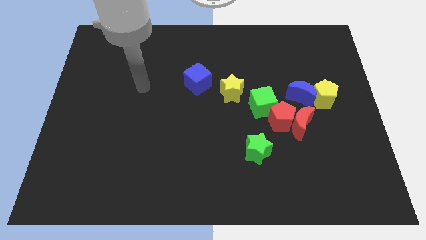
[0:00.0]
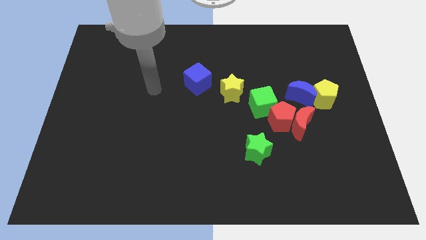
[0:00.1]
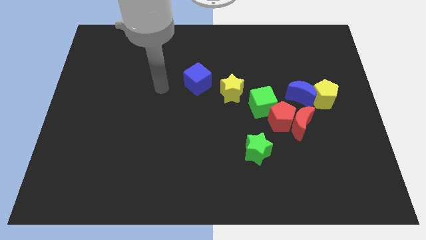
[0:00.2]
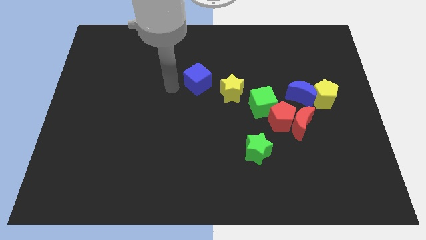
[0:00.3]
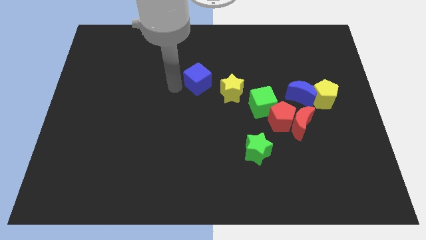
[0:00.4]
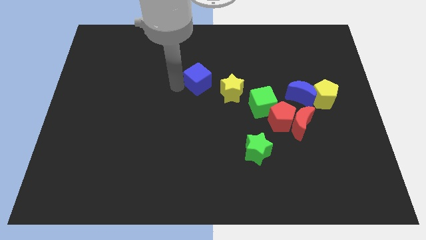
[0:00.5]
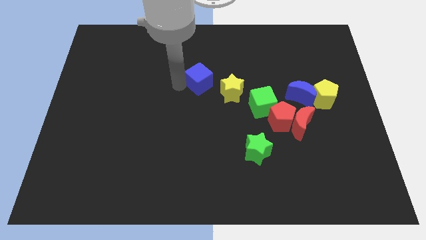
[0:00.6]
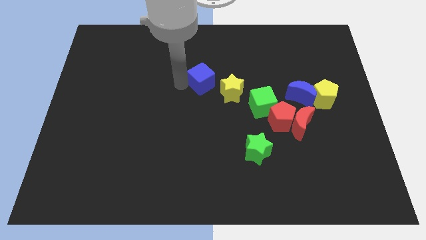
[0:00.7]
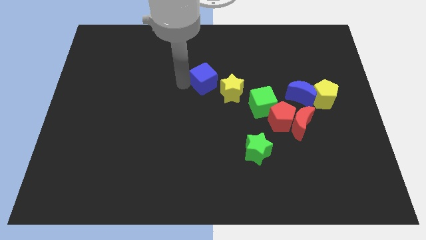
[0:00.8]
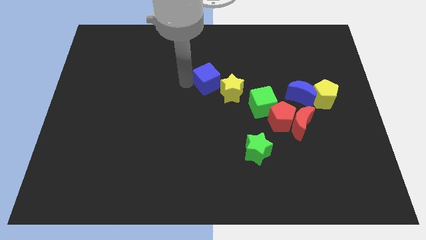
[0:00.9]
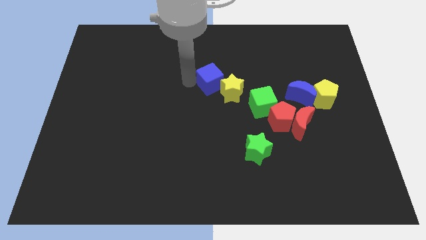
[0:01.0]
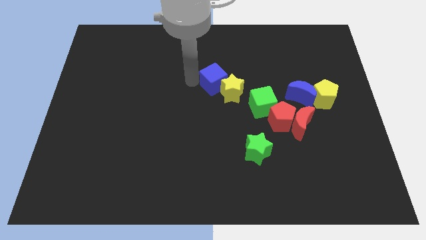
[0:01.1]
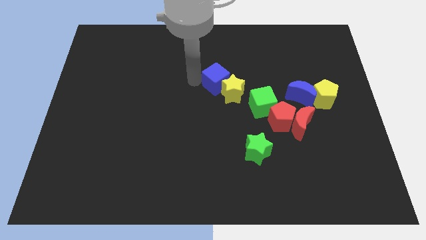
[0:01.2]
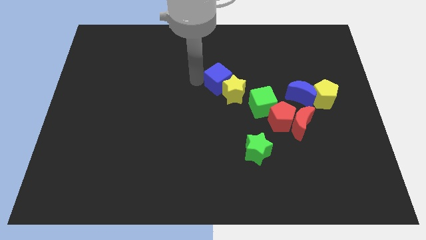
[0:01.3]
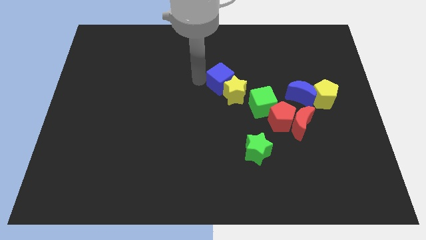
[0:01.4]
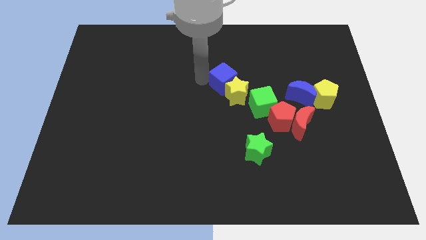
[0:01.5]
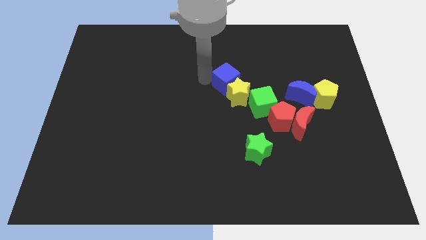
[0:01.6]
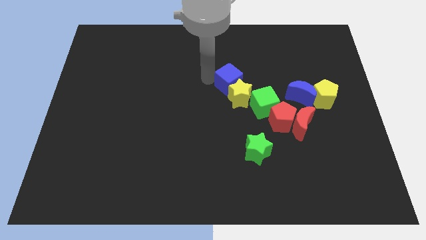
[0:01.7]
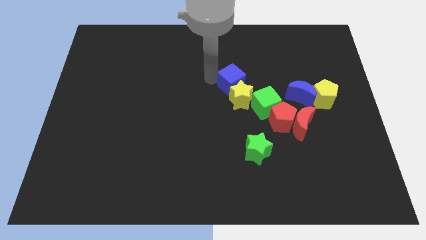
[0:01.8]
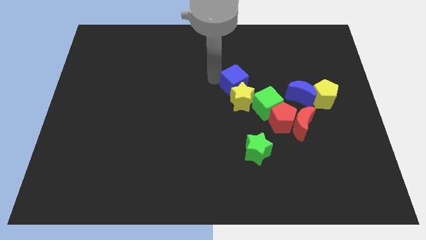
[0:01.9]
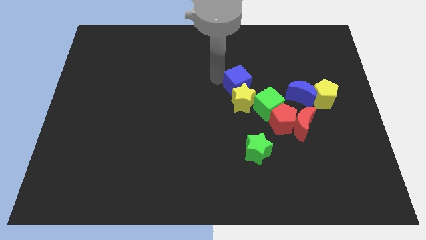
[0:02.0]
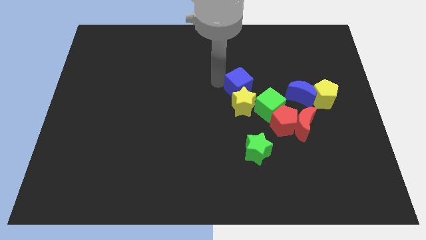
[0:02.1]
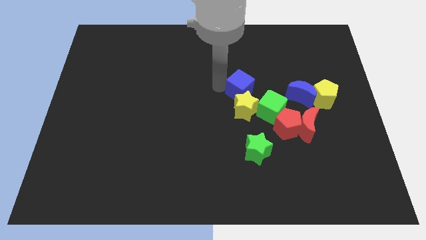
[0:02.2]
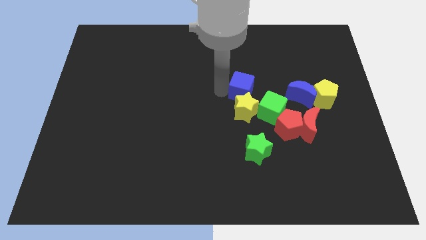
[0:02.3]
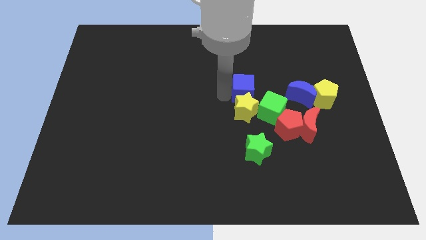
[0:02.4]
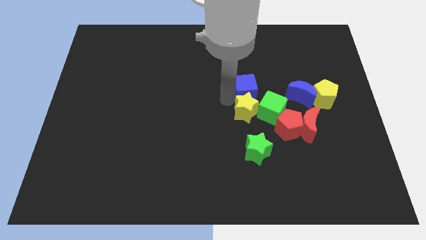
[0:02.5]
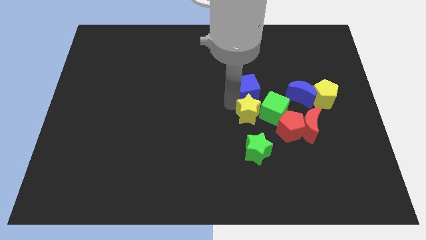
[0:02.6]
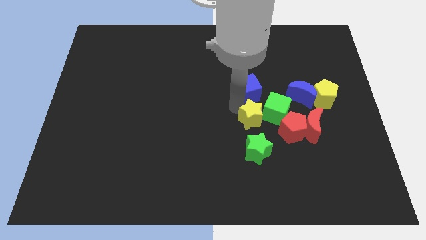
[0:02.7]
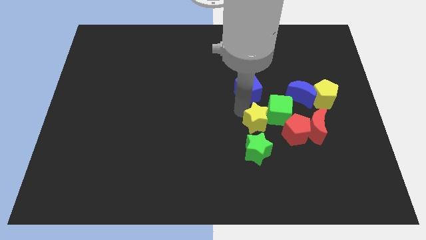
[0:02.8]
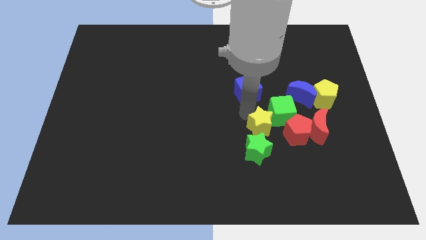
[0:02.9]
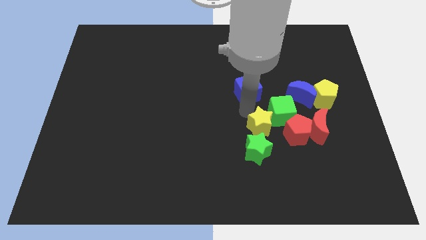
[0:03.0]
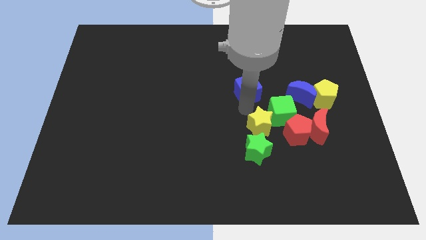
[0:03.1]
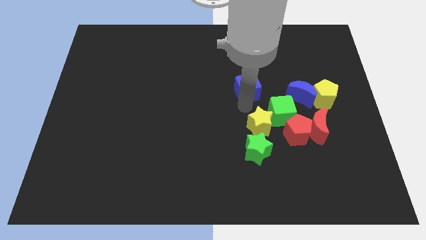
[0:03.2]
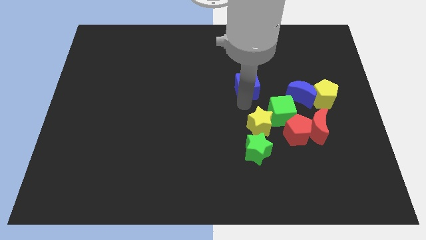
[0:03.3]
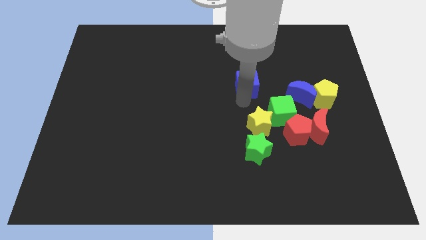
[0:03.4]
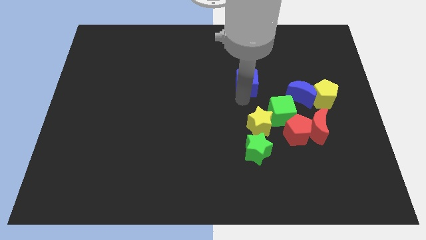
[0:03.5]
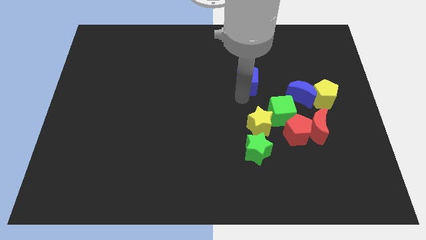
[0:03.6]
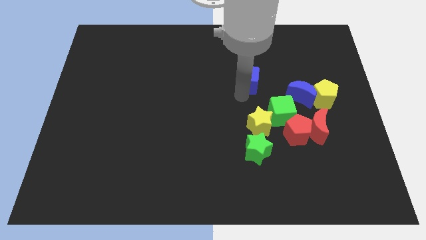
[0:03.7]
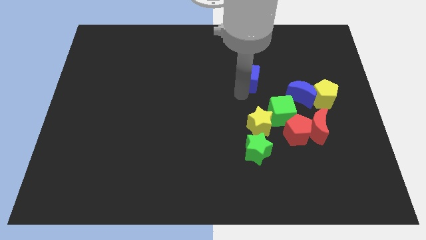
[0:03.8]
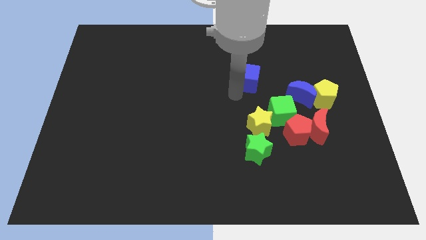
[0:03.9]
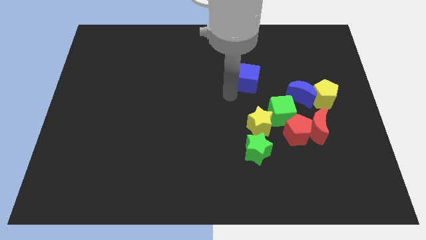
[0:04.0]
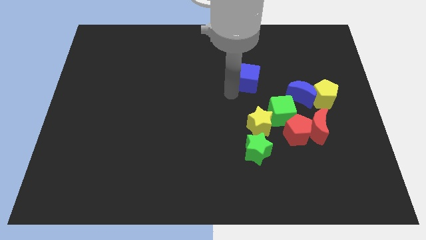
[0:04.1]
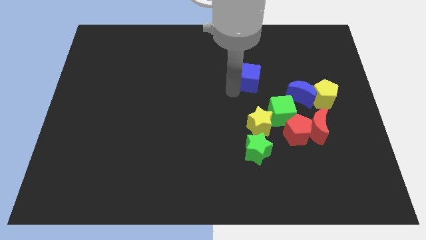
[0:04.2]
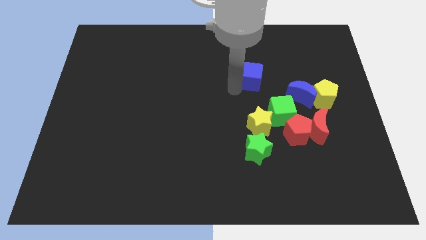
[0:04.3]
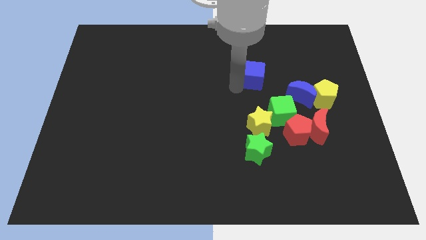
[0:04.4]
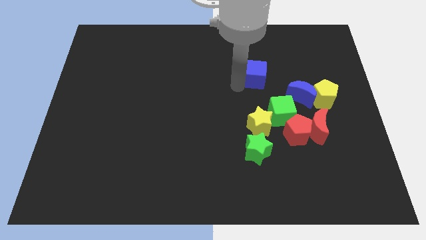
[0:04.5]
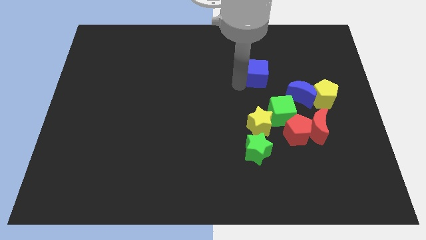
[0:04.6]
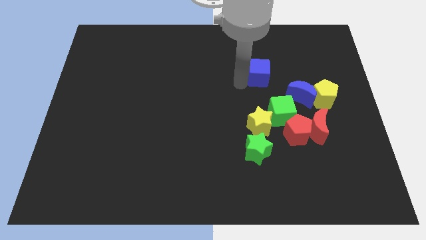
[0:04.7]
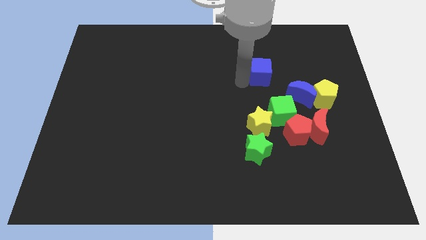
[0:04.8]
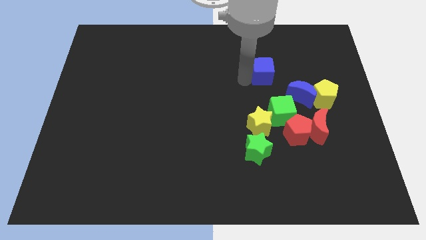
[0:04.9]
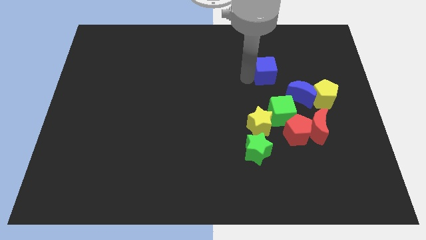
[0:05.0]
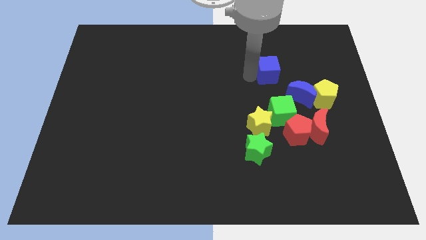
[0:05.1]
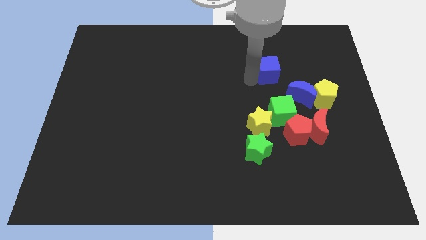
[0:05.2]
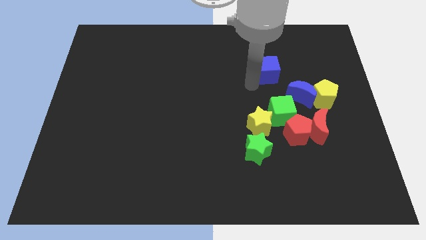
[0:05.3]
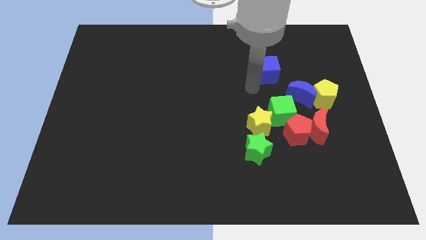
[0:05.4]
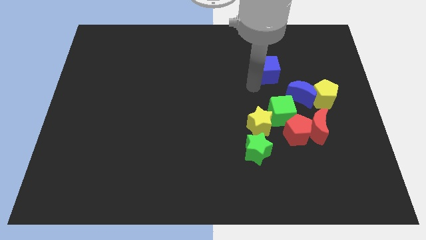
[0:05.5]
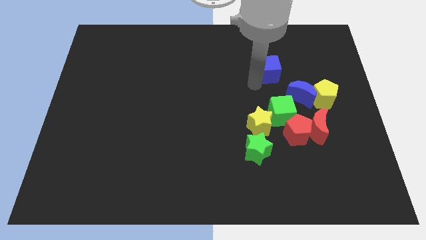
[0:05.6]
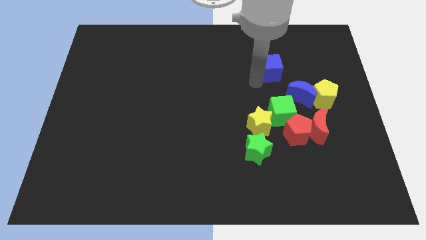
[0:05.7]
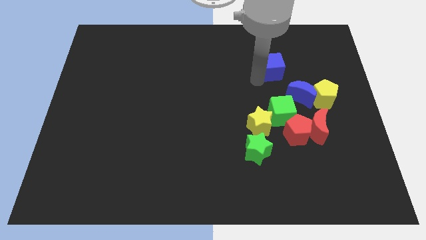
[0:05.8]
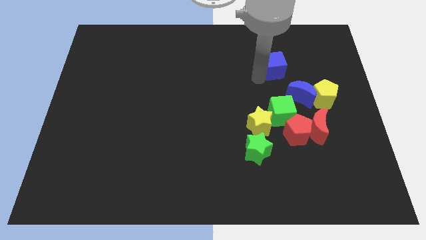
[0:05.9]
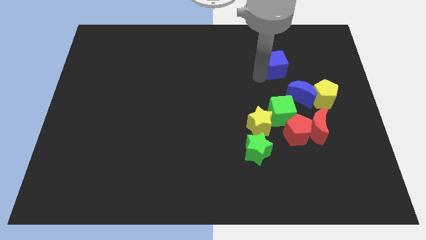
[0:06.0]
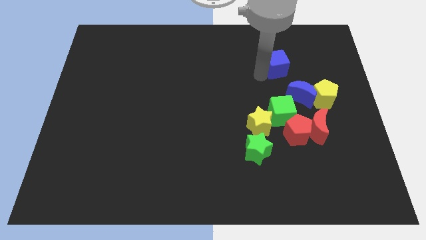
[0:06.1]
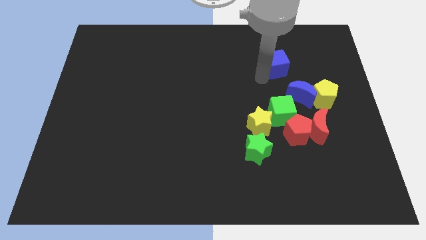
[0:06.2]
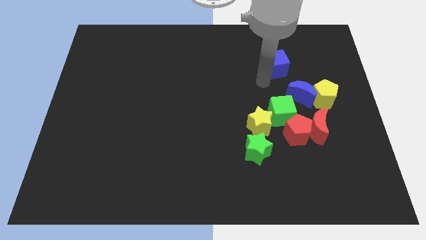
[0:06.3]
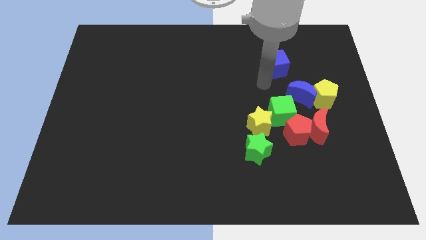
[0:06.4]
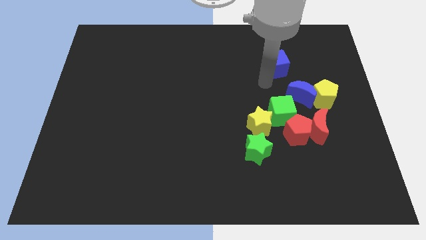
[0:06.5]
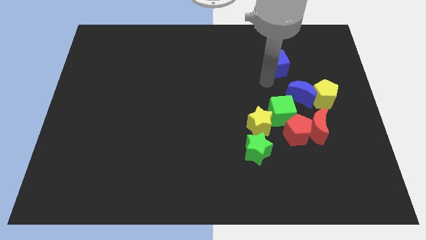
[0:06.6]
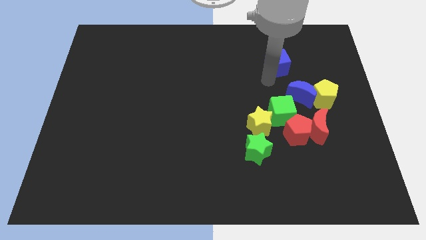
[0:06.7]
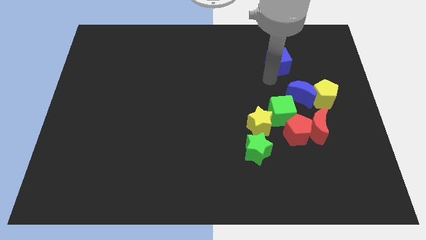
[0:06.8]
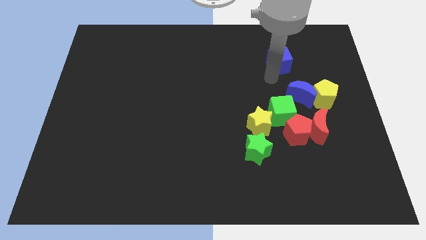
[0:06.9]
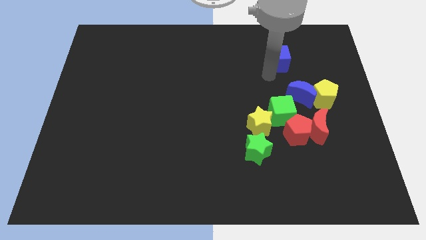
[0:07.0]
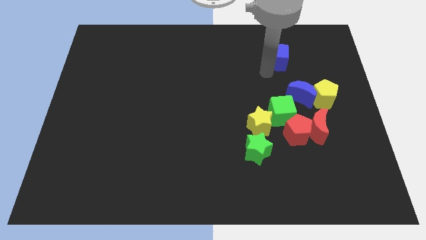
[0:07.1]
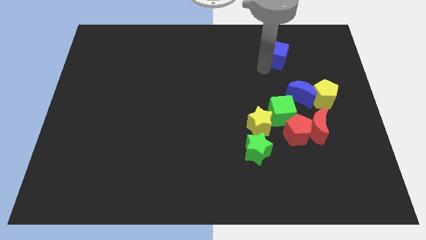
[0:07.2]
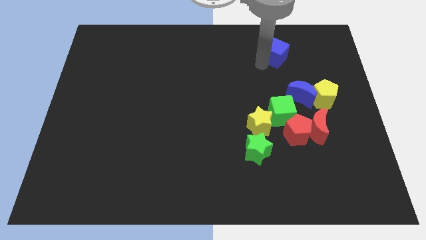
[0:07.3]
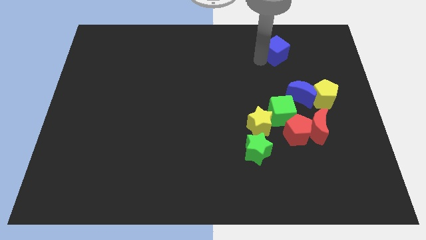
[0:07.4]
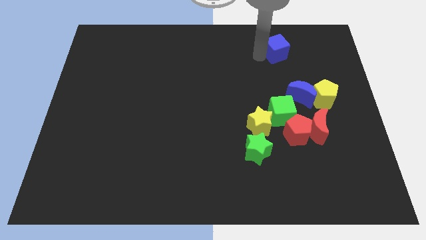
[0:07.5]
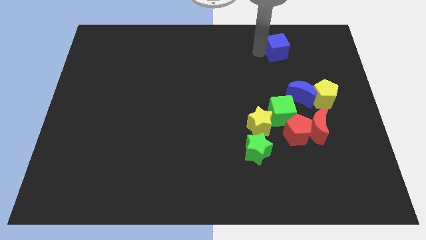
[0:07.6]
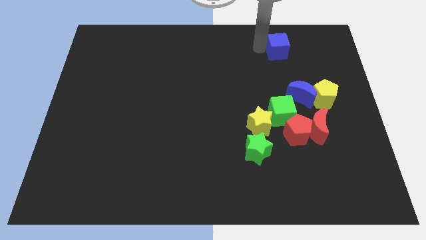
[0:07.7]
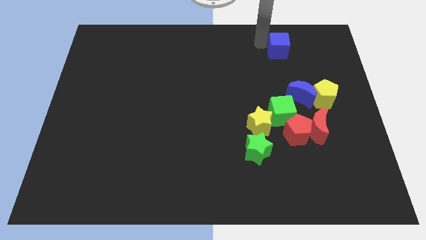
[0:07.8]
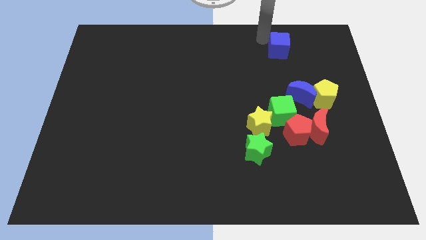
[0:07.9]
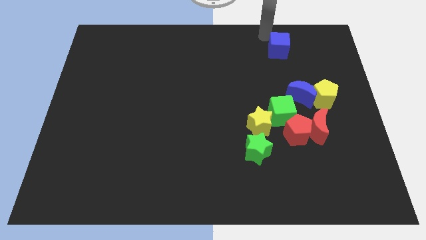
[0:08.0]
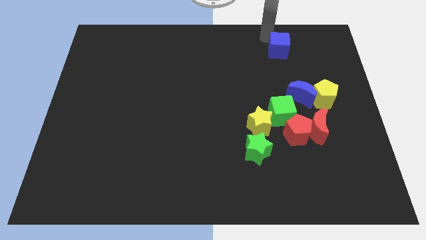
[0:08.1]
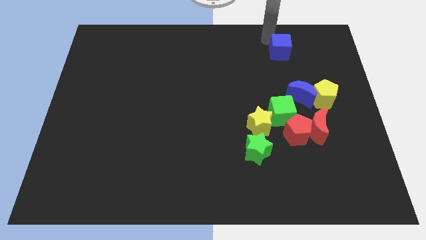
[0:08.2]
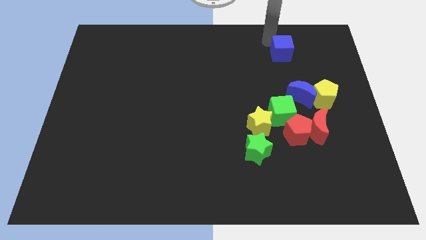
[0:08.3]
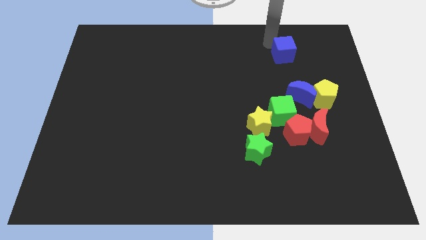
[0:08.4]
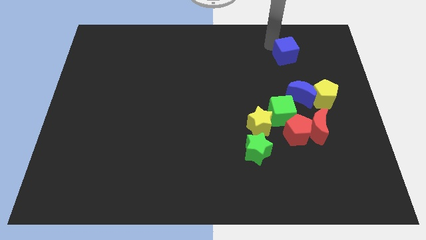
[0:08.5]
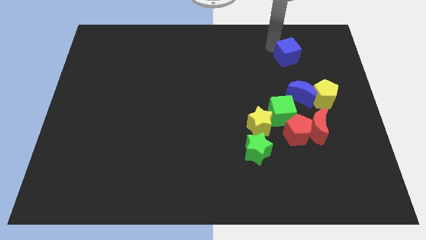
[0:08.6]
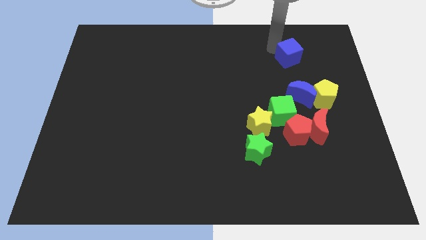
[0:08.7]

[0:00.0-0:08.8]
move the blue cube right
